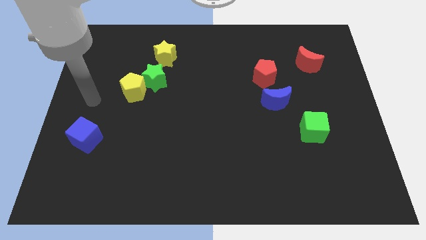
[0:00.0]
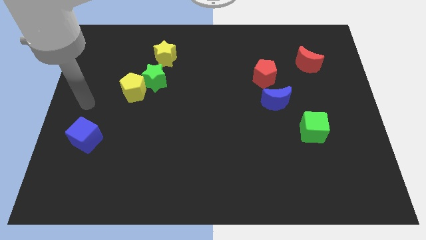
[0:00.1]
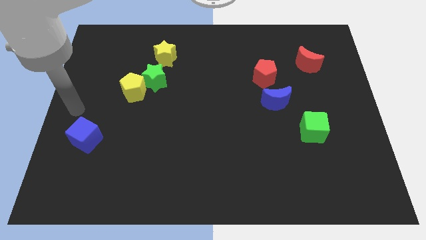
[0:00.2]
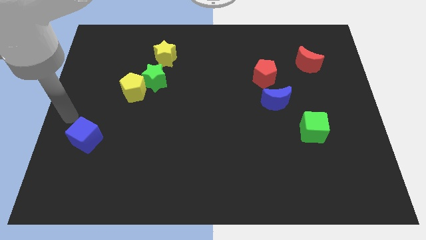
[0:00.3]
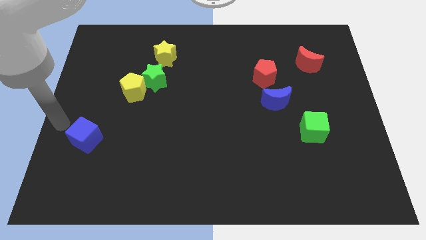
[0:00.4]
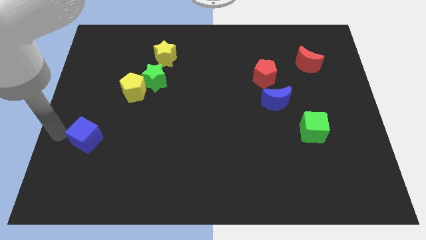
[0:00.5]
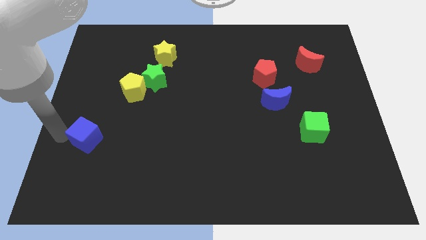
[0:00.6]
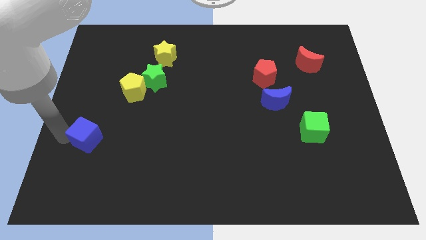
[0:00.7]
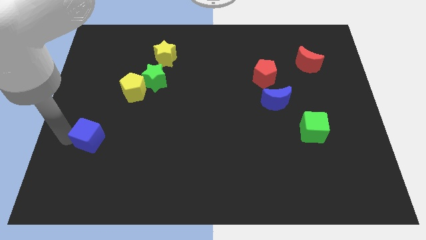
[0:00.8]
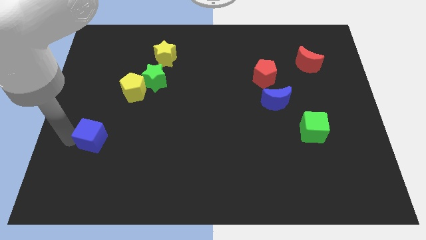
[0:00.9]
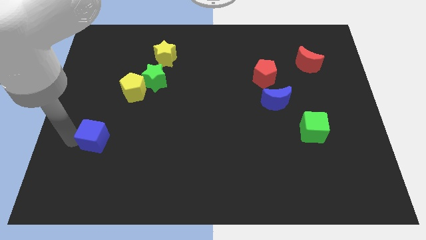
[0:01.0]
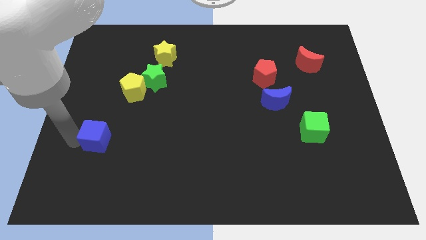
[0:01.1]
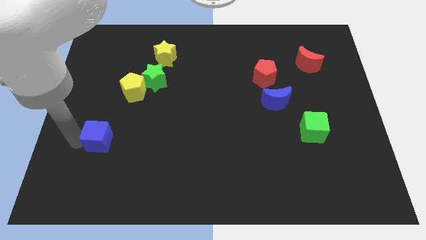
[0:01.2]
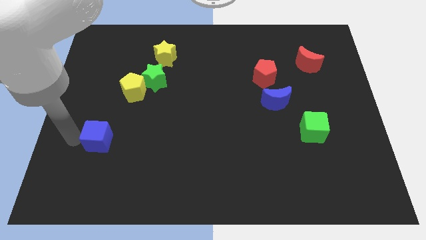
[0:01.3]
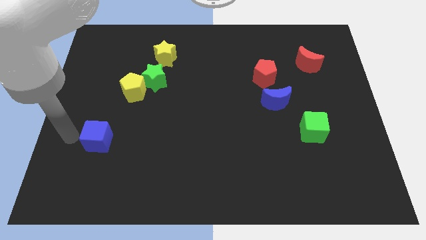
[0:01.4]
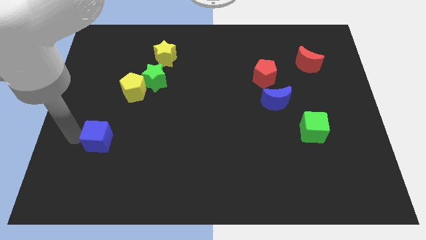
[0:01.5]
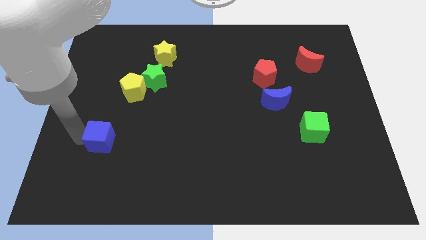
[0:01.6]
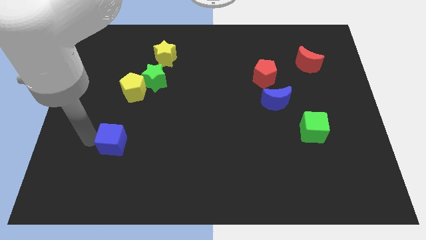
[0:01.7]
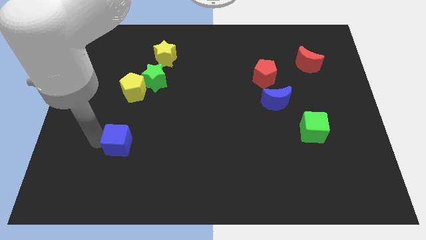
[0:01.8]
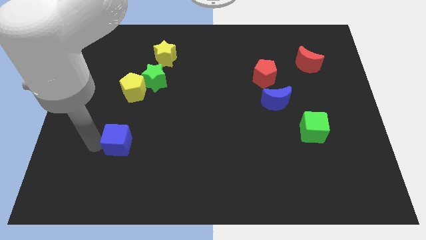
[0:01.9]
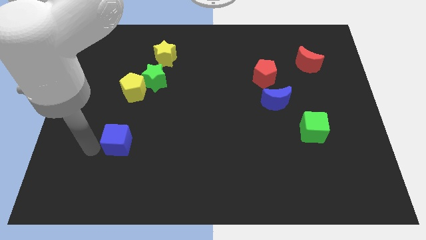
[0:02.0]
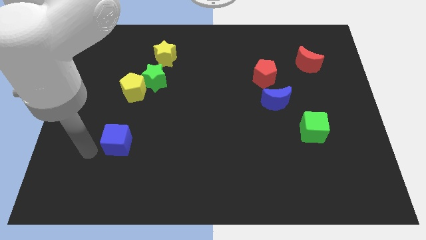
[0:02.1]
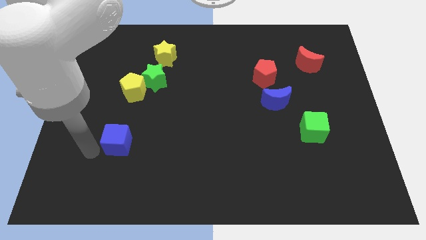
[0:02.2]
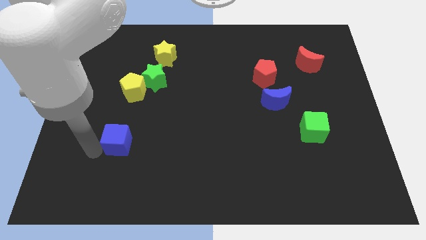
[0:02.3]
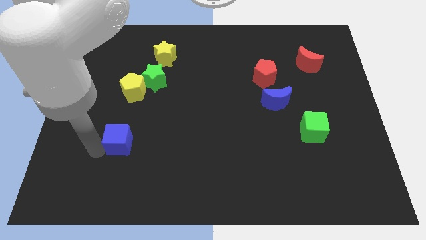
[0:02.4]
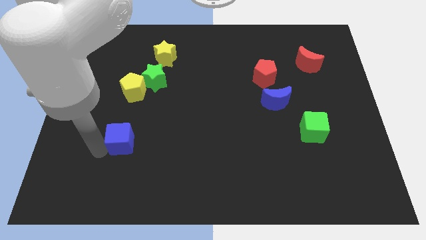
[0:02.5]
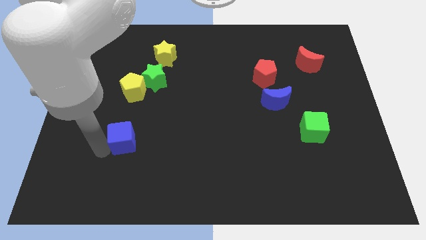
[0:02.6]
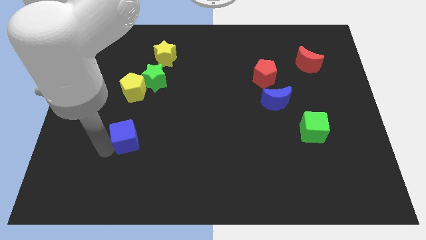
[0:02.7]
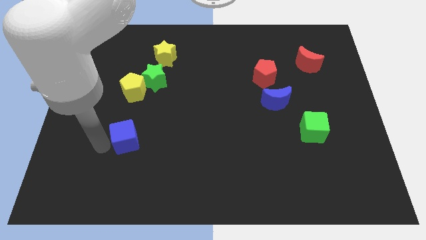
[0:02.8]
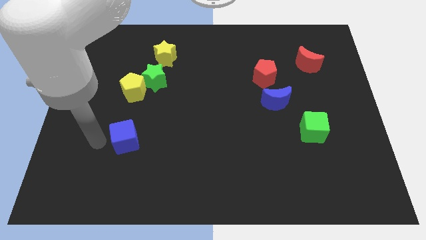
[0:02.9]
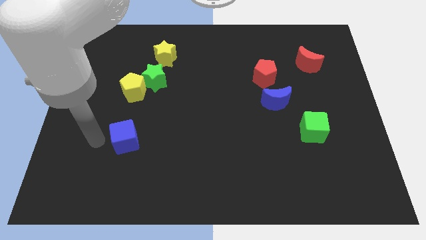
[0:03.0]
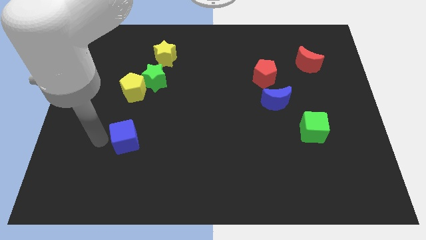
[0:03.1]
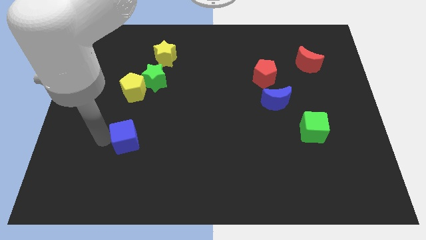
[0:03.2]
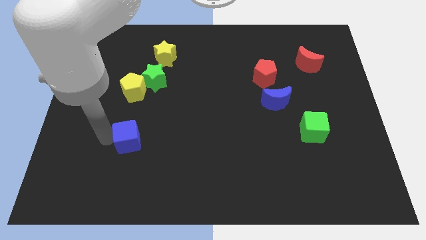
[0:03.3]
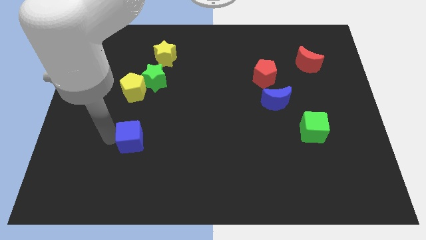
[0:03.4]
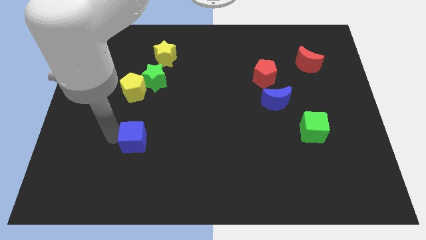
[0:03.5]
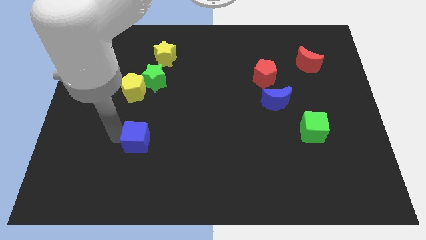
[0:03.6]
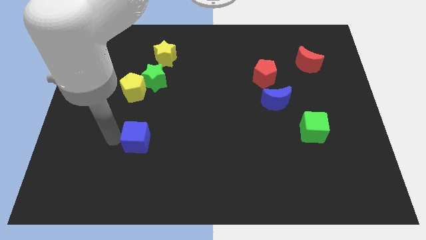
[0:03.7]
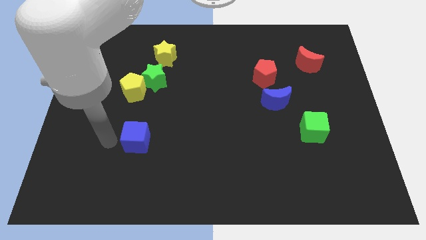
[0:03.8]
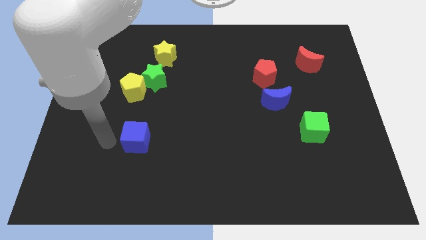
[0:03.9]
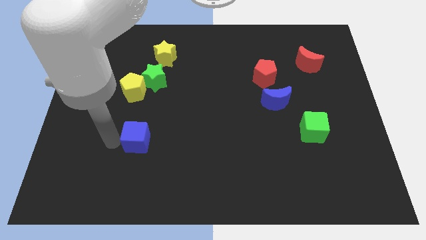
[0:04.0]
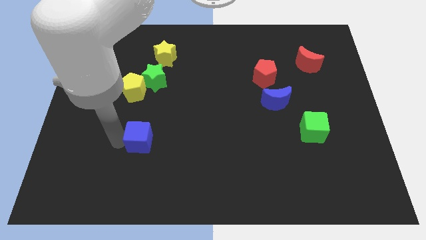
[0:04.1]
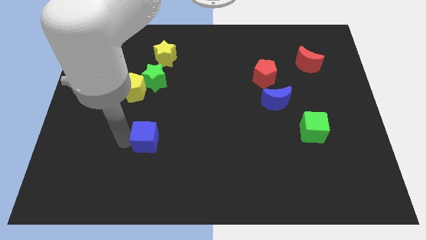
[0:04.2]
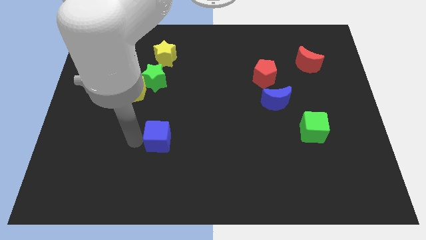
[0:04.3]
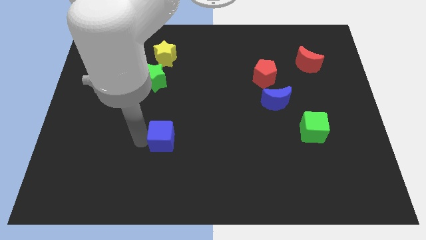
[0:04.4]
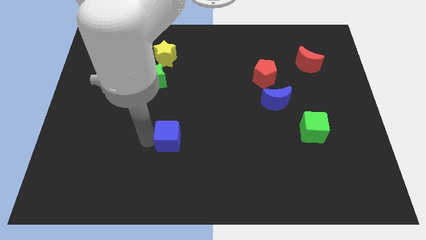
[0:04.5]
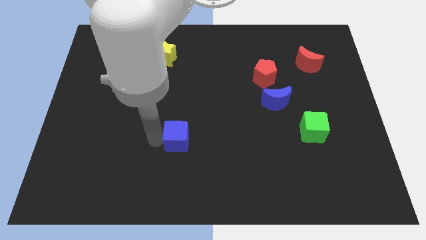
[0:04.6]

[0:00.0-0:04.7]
slide the blue cube right

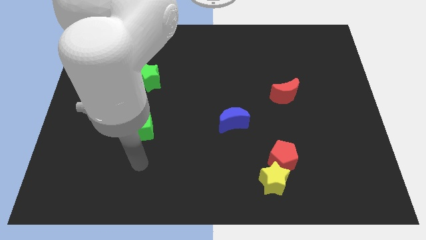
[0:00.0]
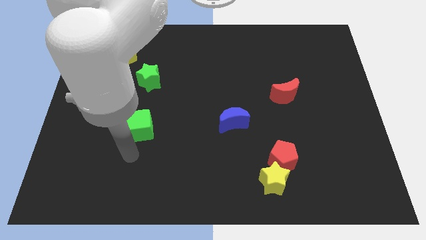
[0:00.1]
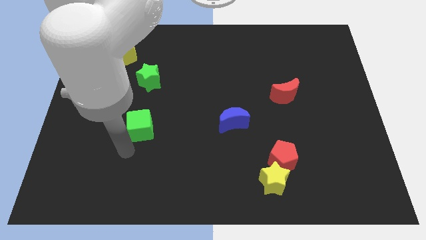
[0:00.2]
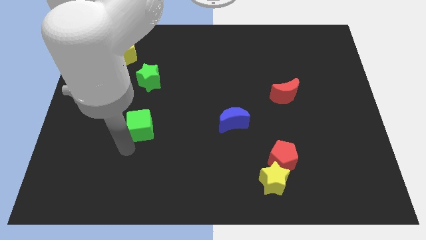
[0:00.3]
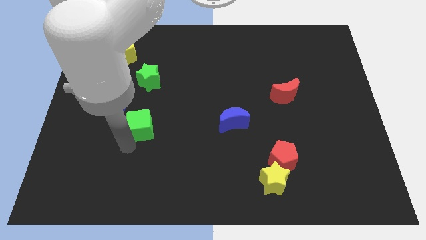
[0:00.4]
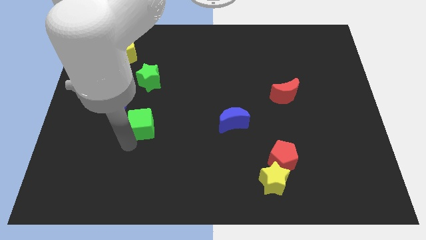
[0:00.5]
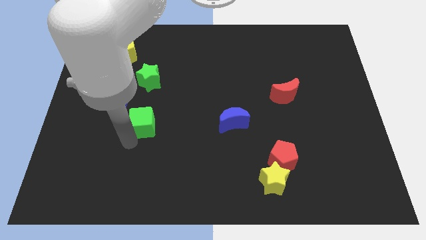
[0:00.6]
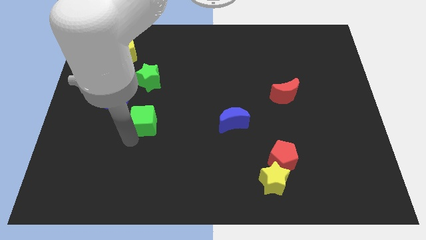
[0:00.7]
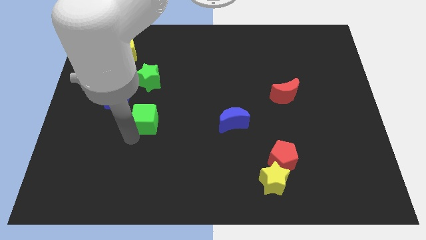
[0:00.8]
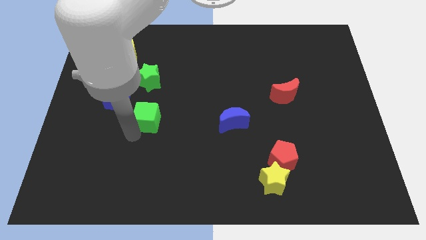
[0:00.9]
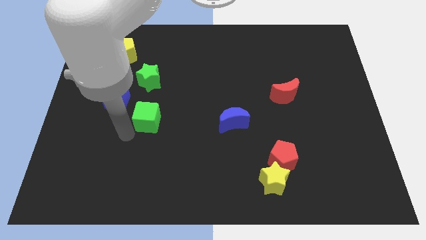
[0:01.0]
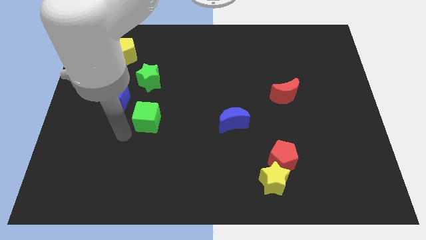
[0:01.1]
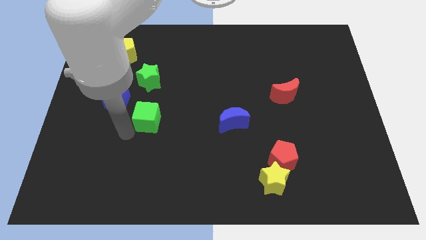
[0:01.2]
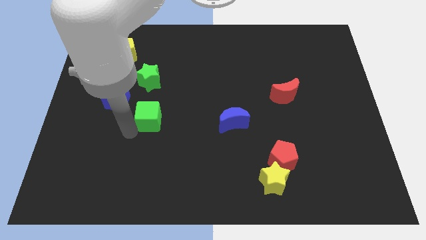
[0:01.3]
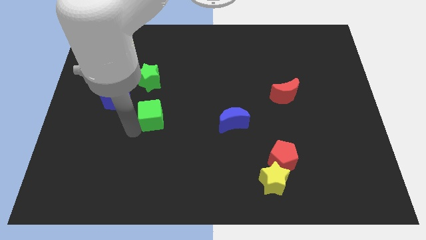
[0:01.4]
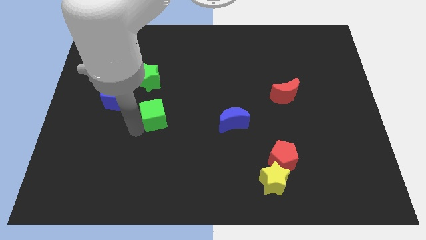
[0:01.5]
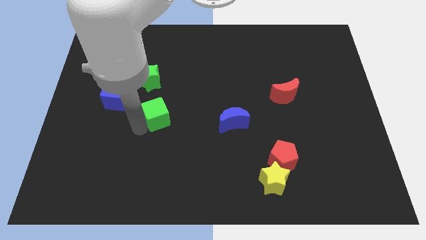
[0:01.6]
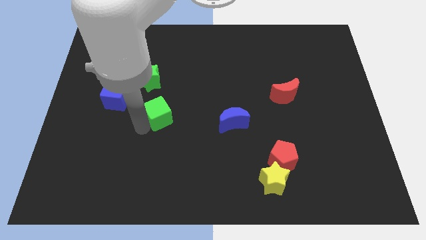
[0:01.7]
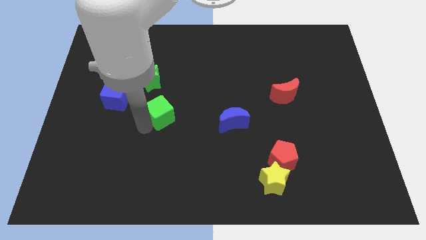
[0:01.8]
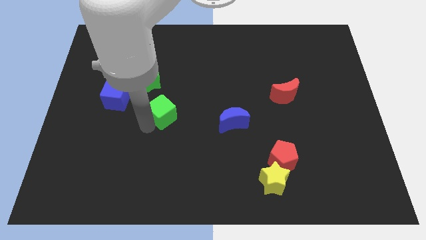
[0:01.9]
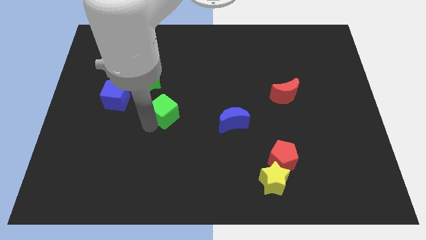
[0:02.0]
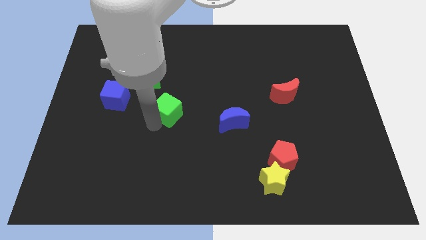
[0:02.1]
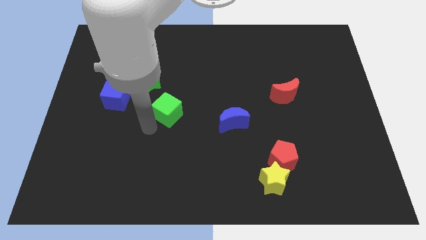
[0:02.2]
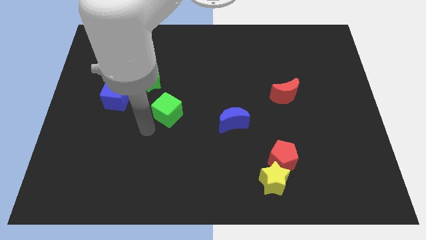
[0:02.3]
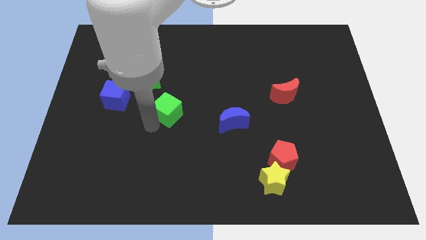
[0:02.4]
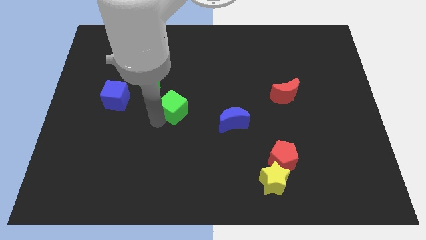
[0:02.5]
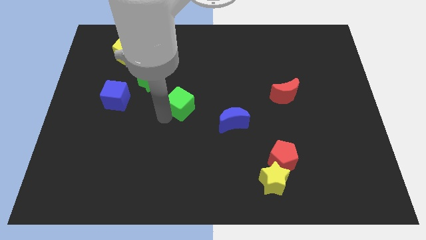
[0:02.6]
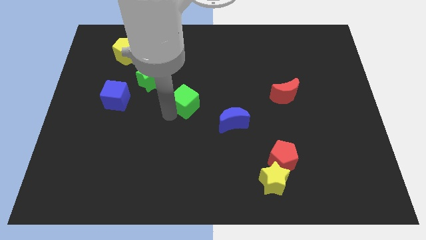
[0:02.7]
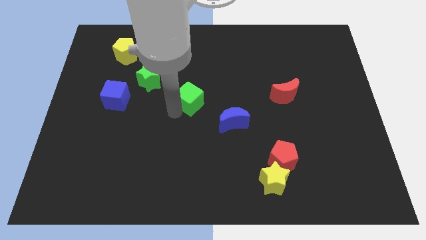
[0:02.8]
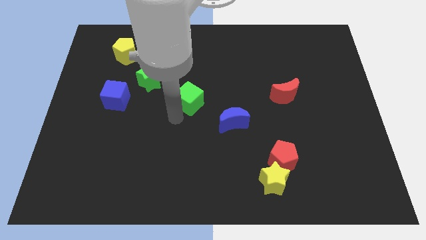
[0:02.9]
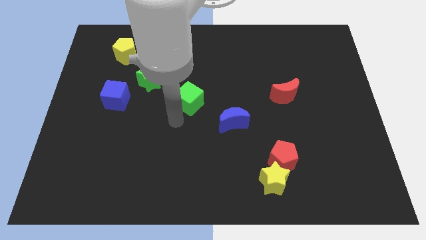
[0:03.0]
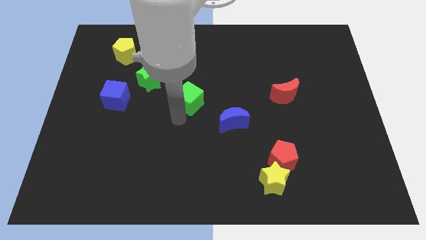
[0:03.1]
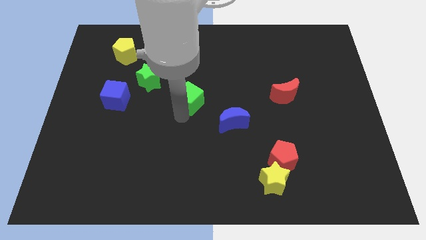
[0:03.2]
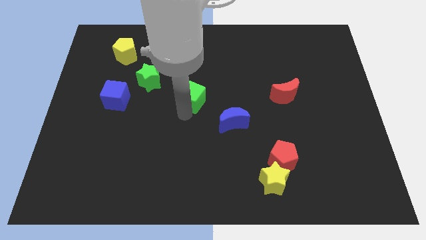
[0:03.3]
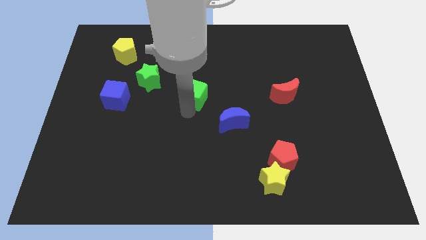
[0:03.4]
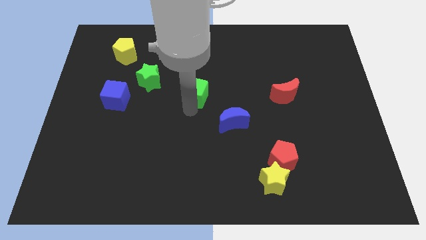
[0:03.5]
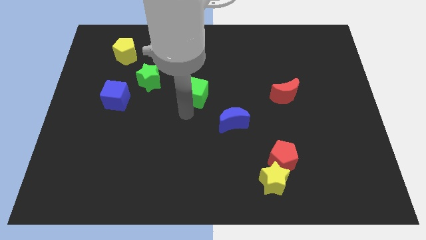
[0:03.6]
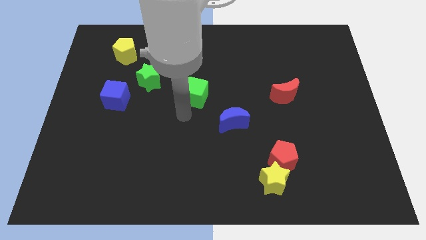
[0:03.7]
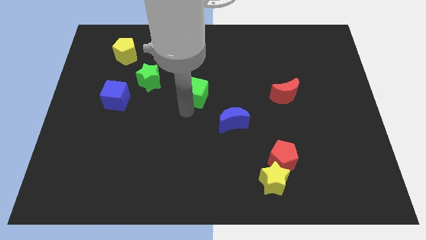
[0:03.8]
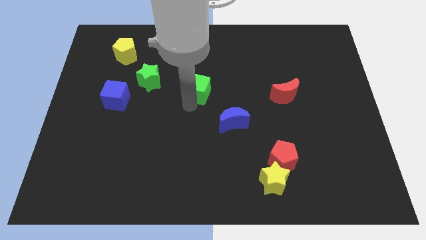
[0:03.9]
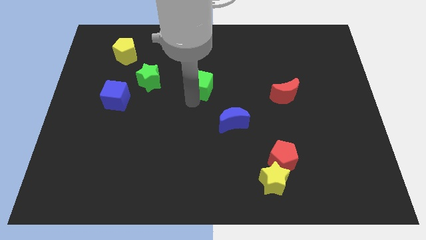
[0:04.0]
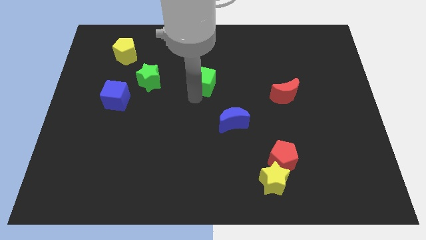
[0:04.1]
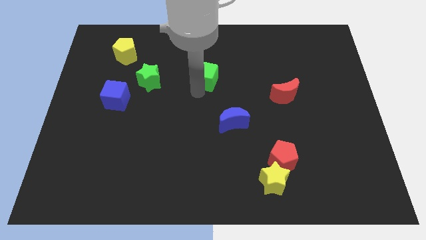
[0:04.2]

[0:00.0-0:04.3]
move the green cube diagonally upwards and to the right
